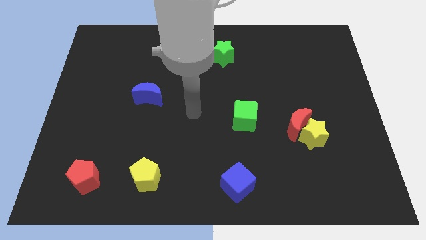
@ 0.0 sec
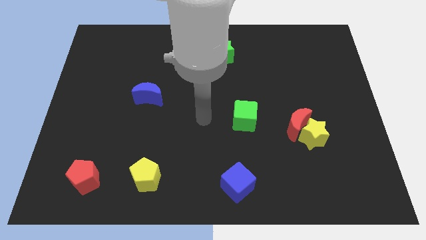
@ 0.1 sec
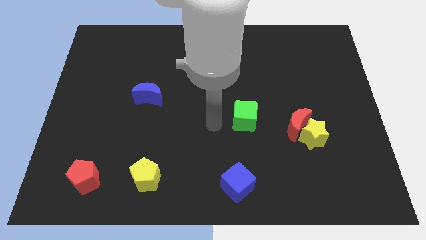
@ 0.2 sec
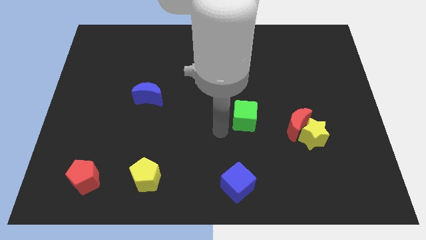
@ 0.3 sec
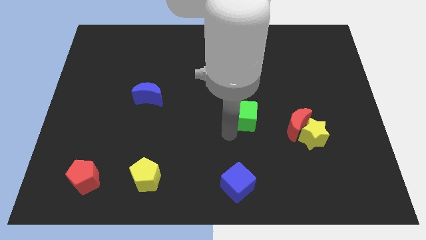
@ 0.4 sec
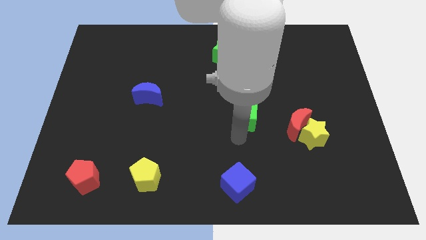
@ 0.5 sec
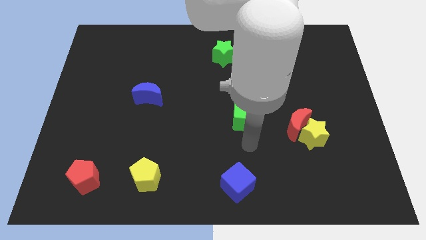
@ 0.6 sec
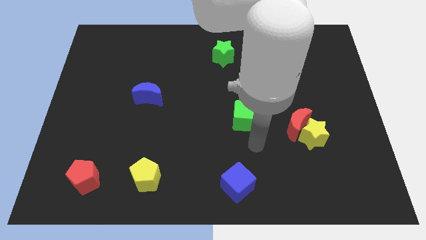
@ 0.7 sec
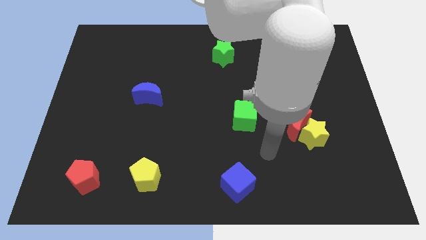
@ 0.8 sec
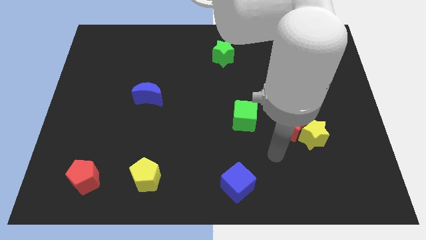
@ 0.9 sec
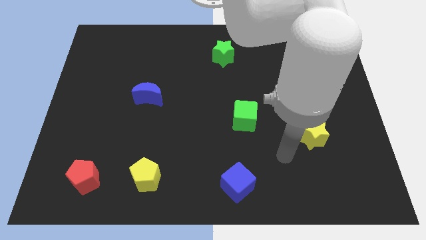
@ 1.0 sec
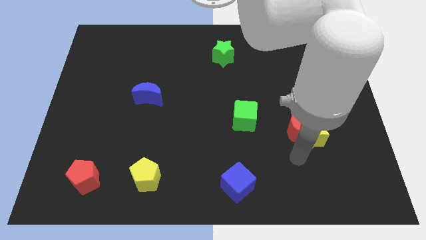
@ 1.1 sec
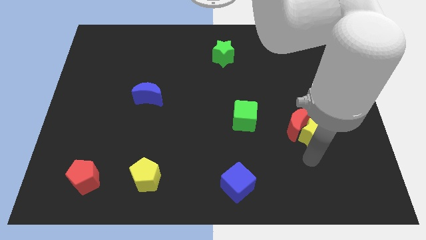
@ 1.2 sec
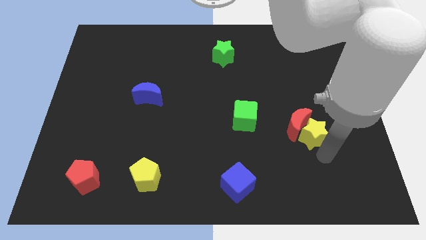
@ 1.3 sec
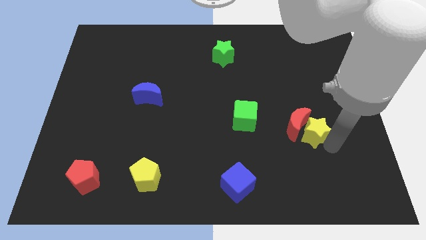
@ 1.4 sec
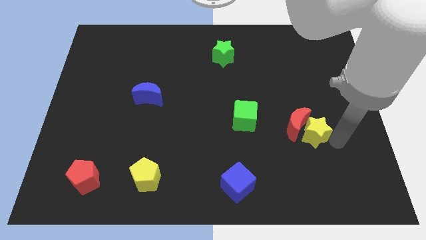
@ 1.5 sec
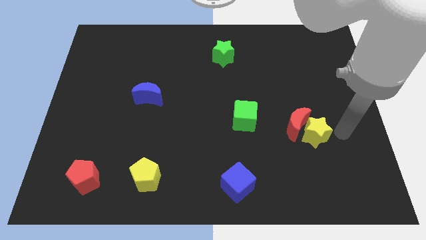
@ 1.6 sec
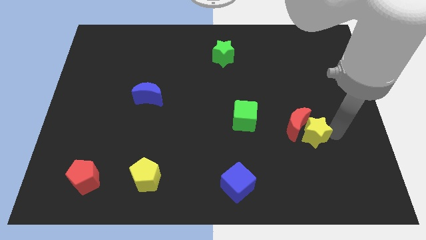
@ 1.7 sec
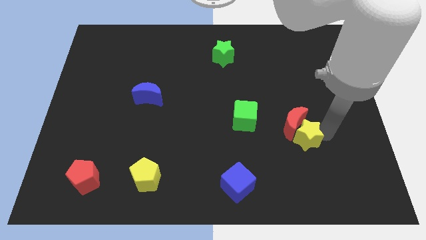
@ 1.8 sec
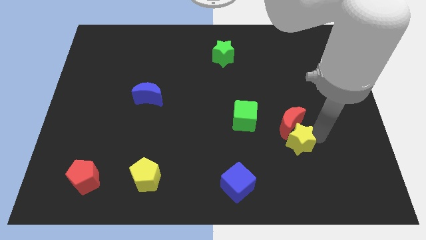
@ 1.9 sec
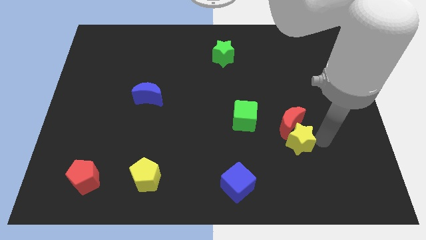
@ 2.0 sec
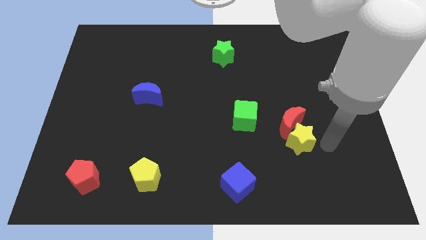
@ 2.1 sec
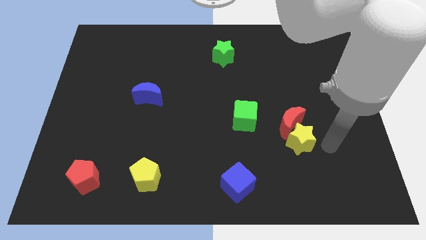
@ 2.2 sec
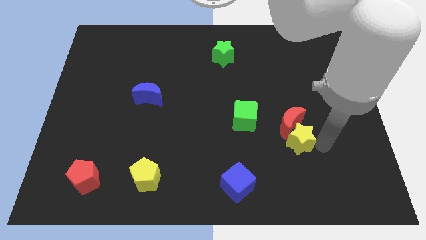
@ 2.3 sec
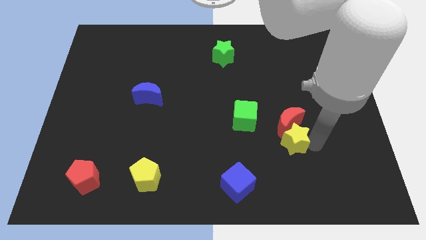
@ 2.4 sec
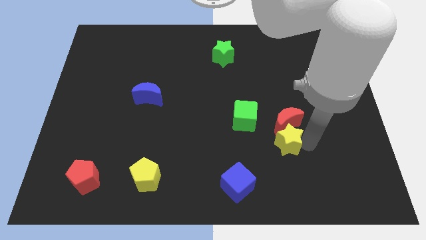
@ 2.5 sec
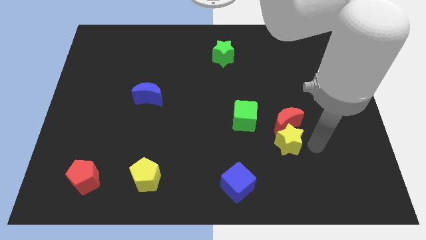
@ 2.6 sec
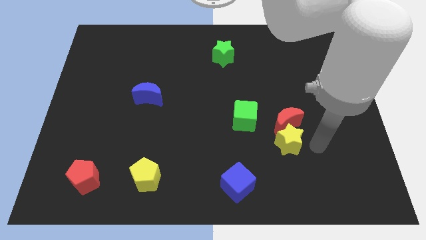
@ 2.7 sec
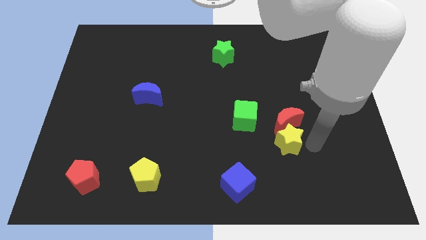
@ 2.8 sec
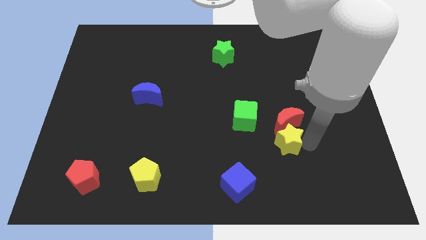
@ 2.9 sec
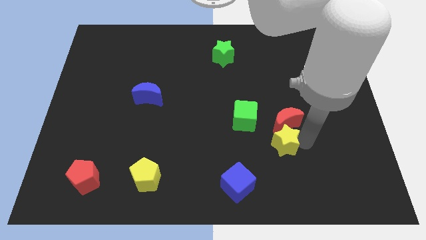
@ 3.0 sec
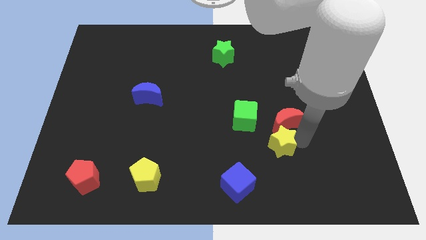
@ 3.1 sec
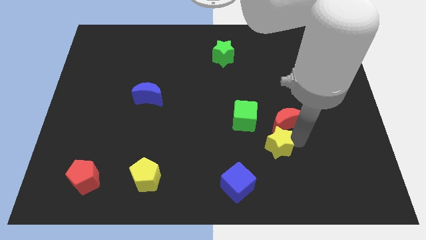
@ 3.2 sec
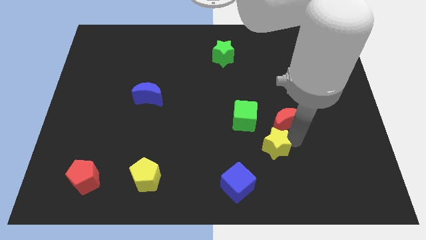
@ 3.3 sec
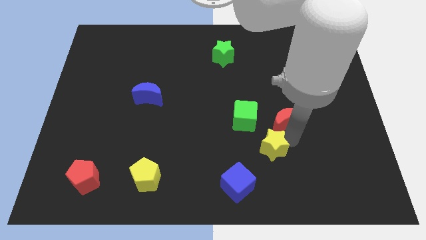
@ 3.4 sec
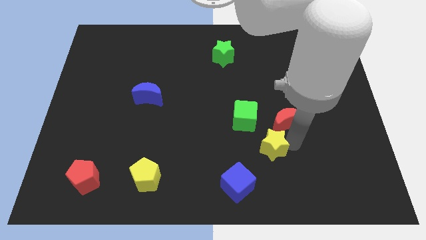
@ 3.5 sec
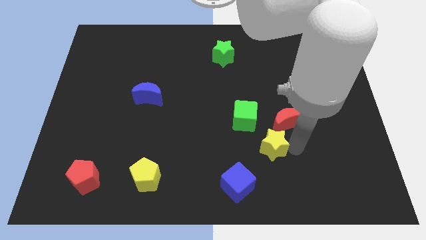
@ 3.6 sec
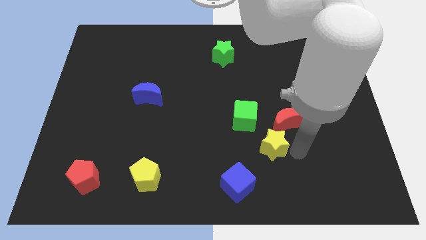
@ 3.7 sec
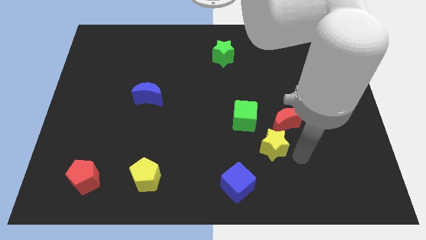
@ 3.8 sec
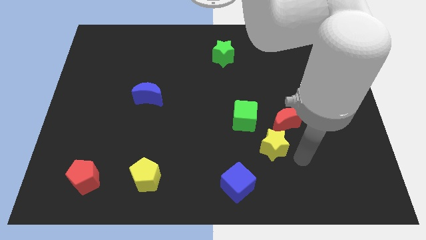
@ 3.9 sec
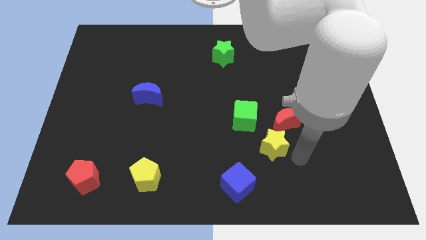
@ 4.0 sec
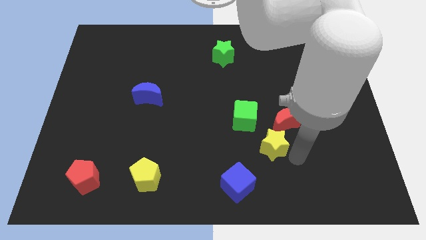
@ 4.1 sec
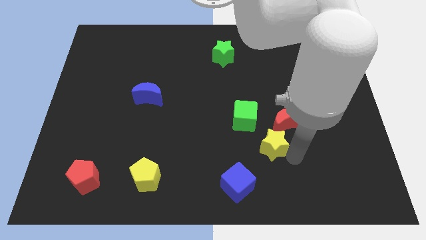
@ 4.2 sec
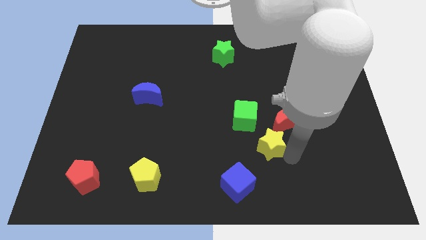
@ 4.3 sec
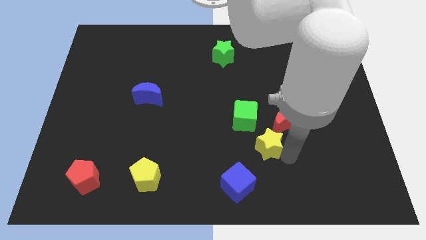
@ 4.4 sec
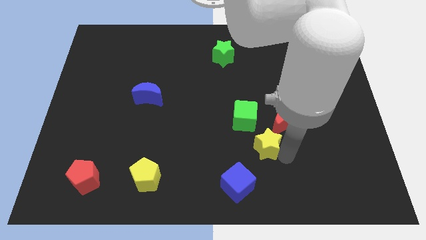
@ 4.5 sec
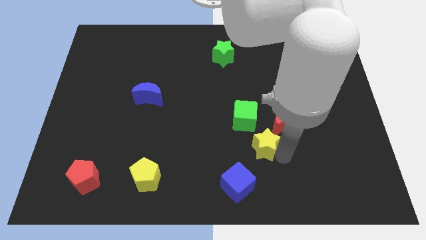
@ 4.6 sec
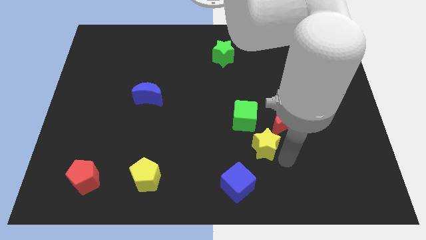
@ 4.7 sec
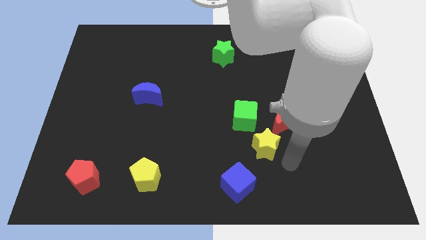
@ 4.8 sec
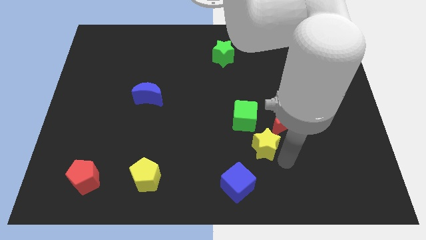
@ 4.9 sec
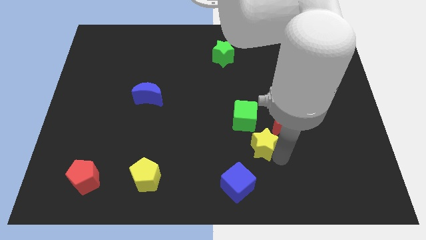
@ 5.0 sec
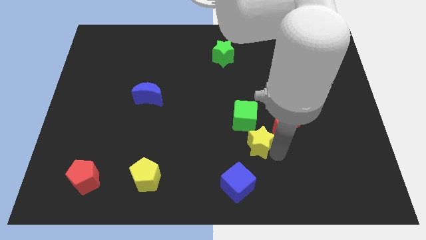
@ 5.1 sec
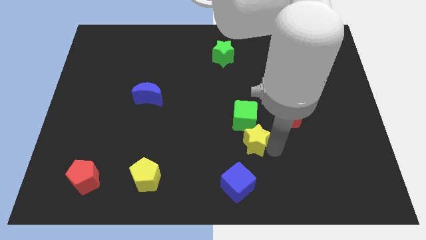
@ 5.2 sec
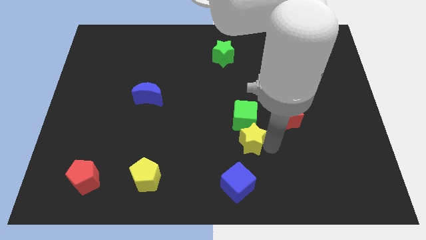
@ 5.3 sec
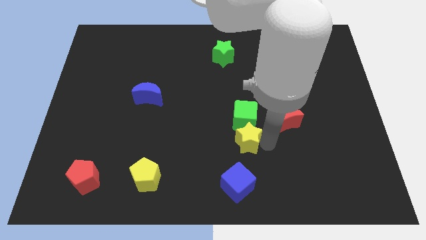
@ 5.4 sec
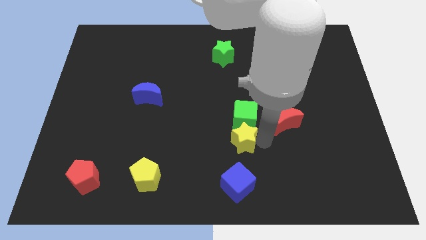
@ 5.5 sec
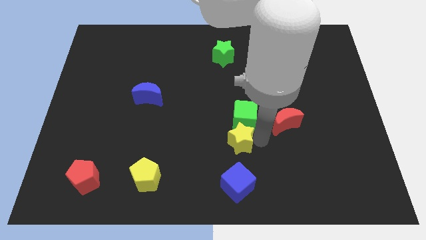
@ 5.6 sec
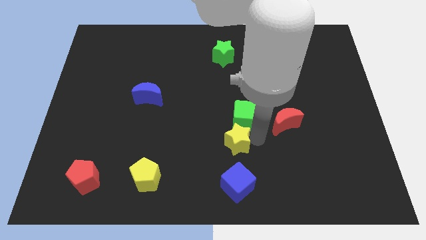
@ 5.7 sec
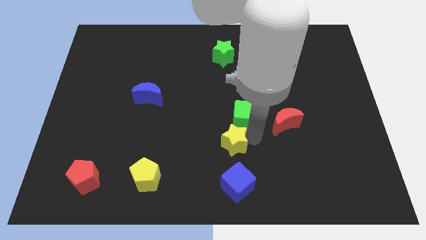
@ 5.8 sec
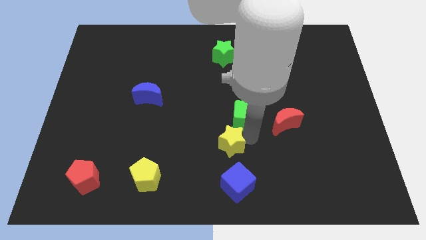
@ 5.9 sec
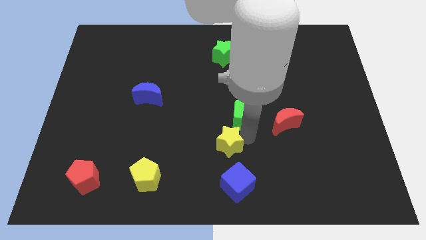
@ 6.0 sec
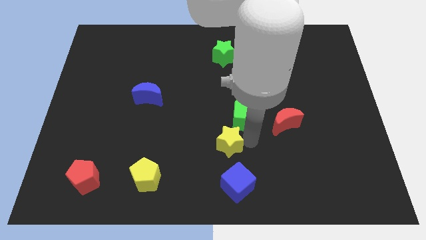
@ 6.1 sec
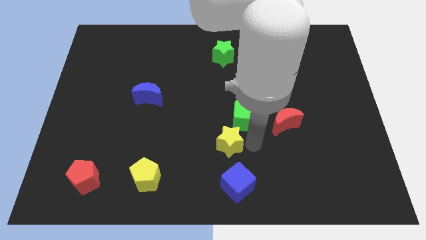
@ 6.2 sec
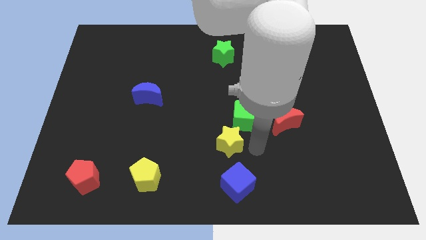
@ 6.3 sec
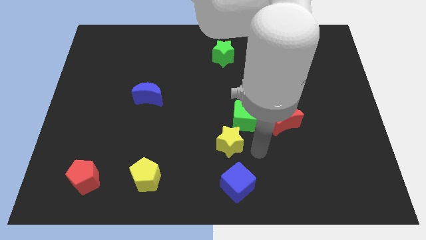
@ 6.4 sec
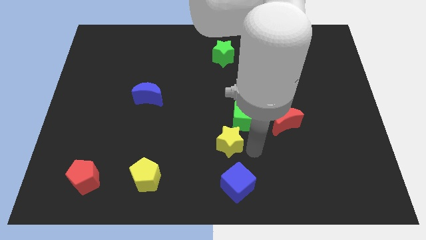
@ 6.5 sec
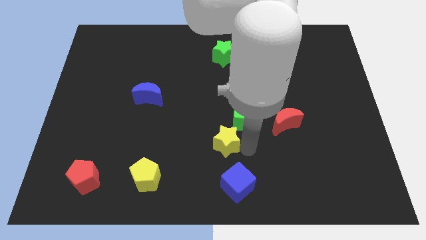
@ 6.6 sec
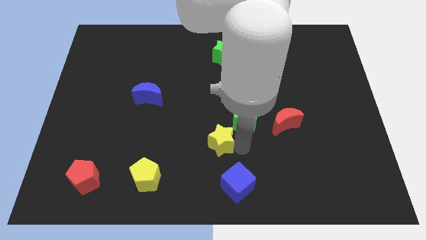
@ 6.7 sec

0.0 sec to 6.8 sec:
push the yellow star left
